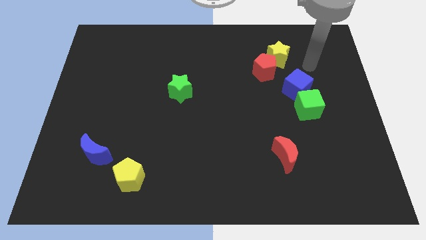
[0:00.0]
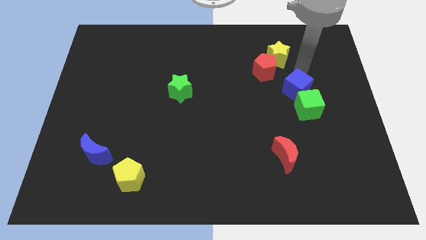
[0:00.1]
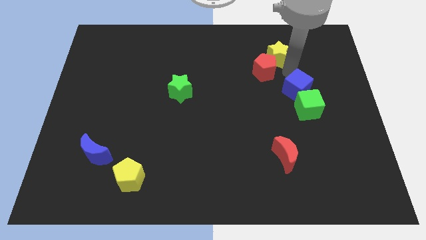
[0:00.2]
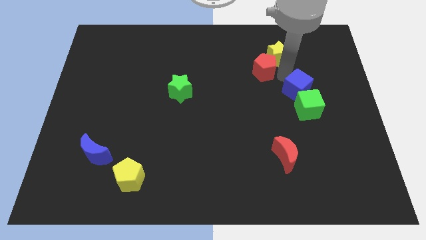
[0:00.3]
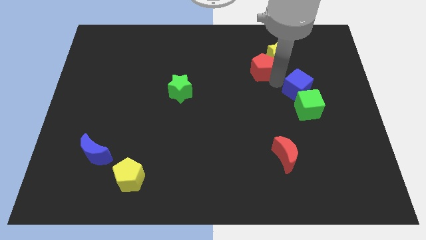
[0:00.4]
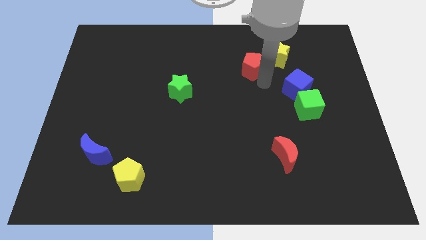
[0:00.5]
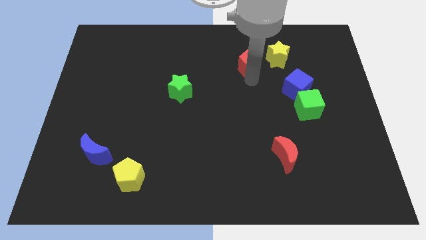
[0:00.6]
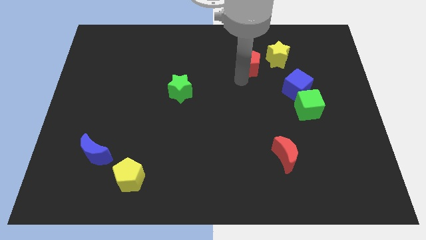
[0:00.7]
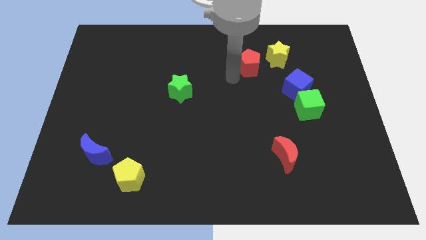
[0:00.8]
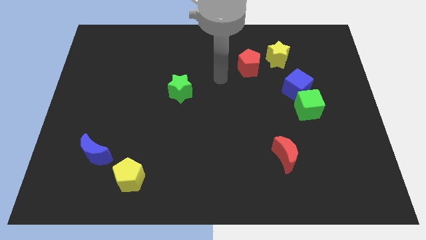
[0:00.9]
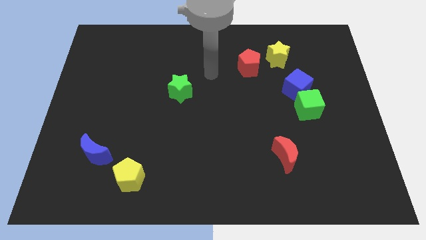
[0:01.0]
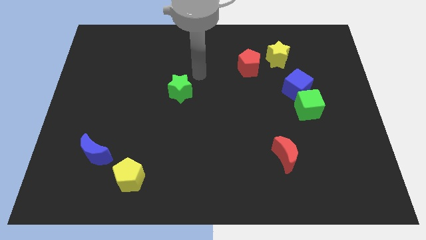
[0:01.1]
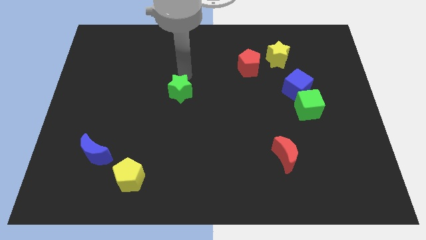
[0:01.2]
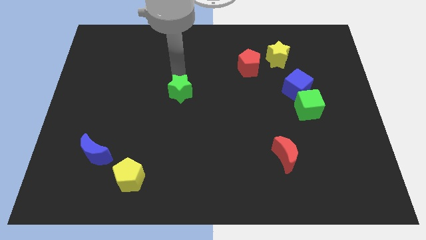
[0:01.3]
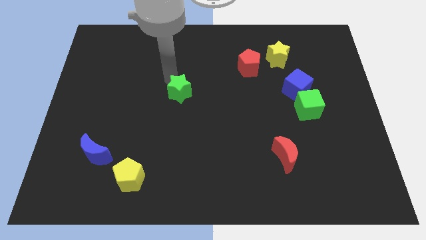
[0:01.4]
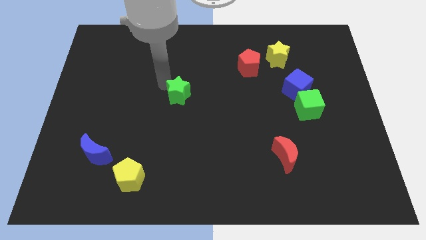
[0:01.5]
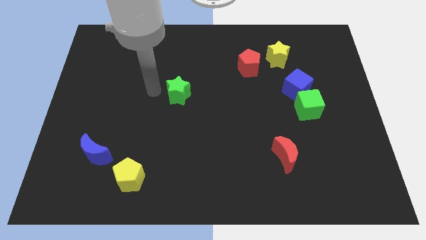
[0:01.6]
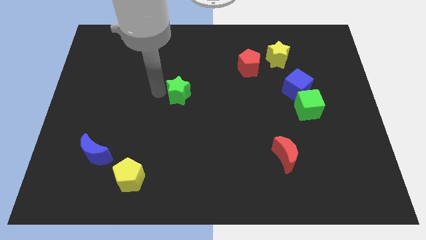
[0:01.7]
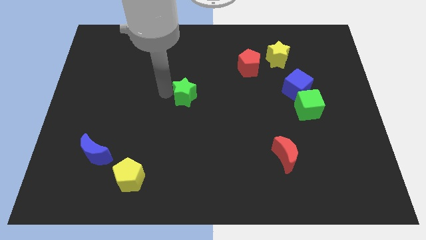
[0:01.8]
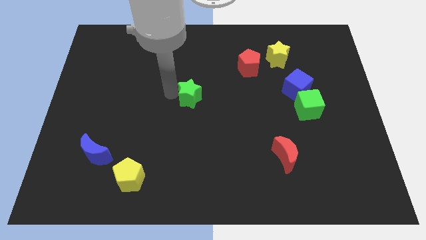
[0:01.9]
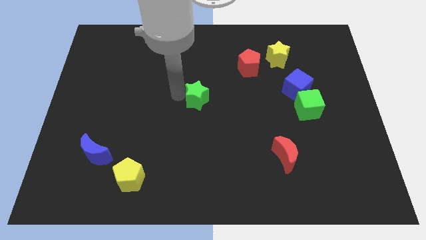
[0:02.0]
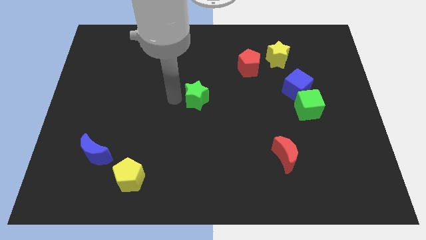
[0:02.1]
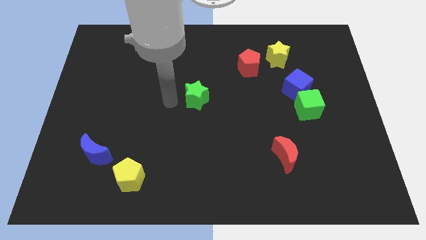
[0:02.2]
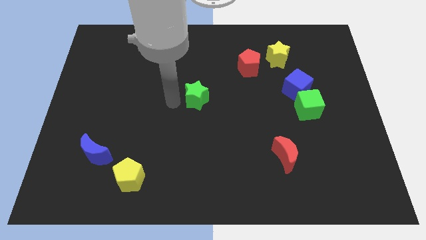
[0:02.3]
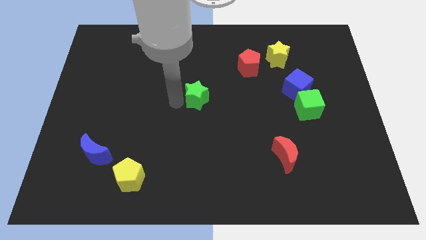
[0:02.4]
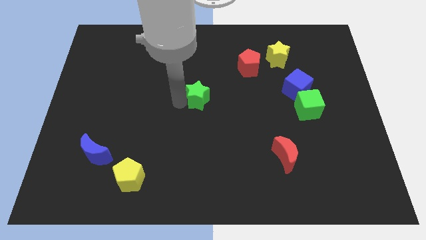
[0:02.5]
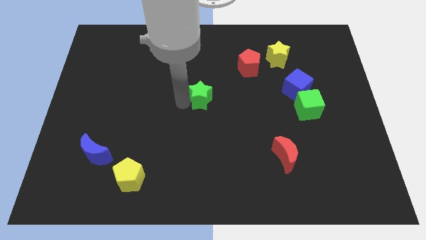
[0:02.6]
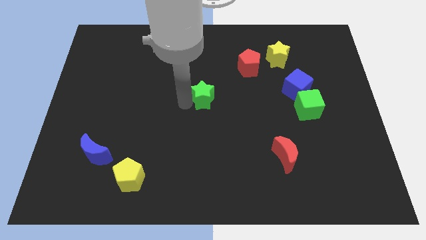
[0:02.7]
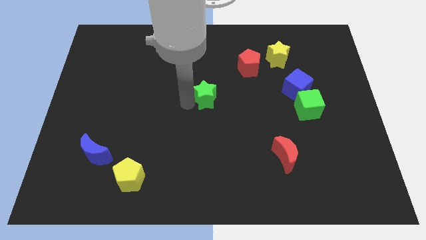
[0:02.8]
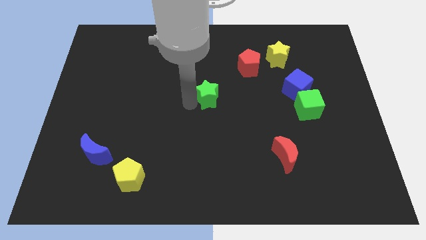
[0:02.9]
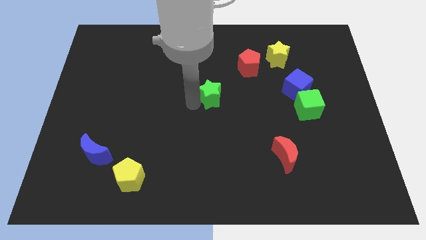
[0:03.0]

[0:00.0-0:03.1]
move the green star right slightly

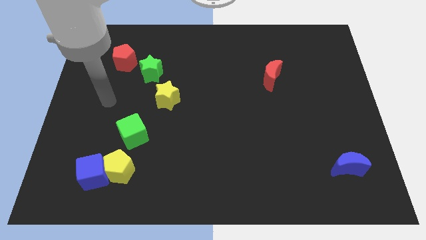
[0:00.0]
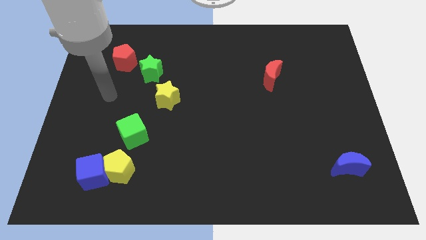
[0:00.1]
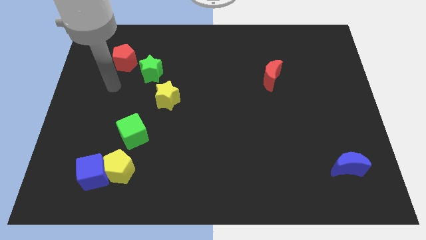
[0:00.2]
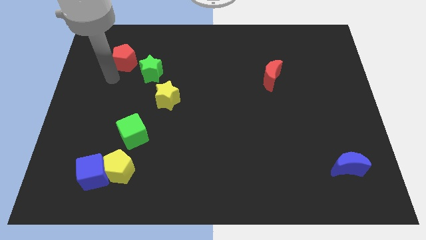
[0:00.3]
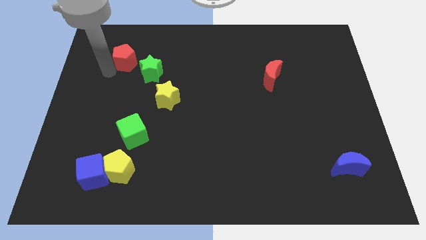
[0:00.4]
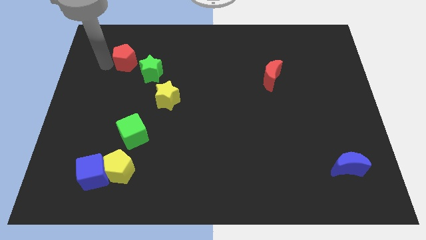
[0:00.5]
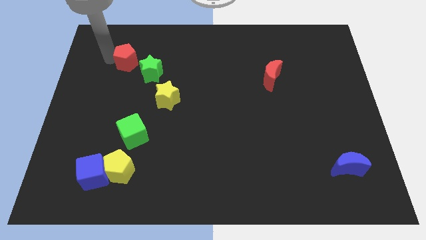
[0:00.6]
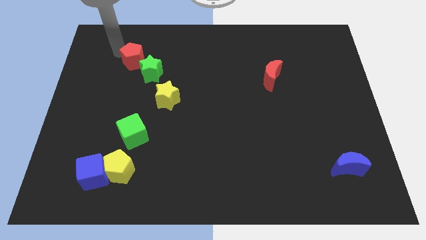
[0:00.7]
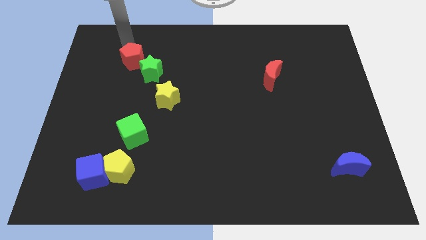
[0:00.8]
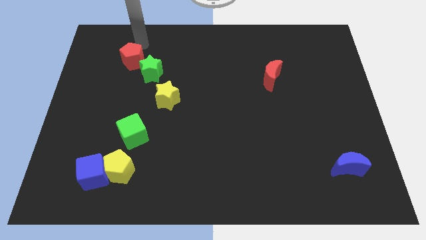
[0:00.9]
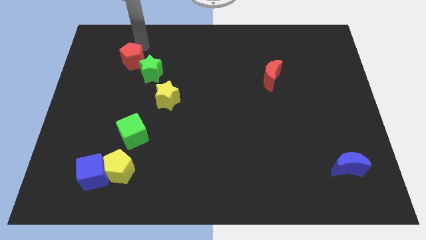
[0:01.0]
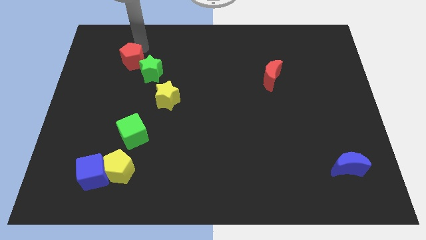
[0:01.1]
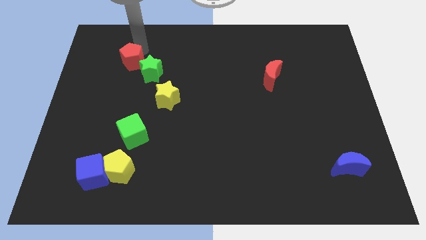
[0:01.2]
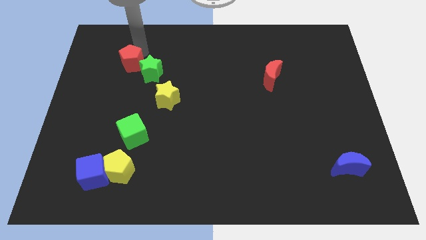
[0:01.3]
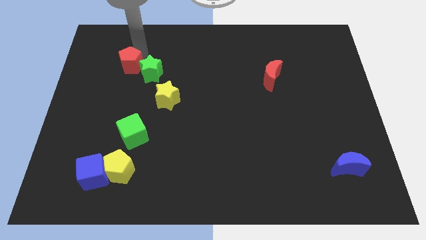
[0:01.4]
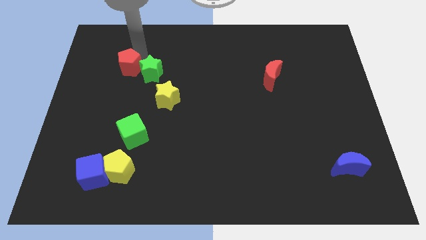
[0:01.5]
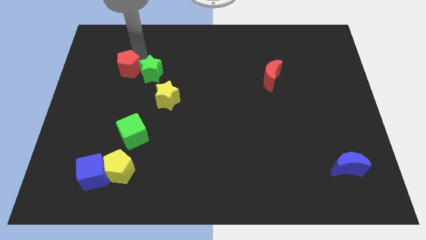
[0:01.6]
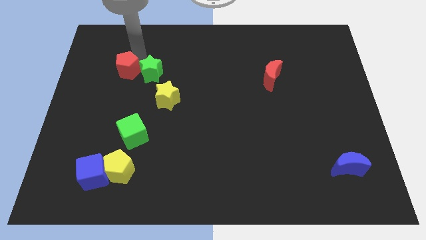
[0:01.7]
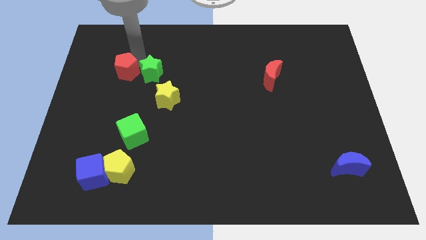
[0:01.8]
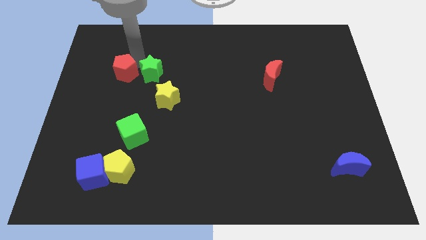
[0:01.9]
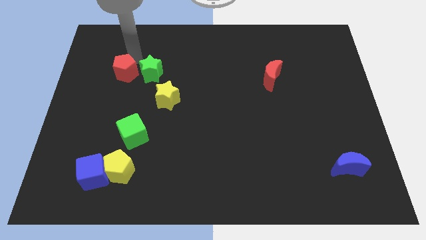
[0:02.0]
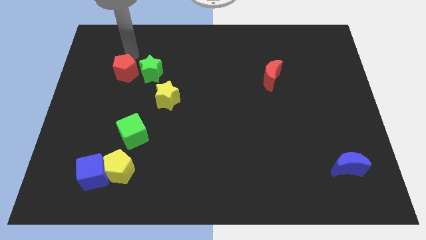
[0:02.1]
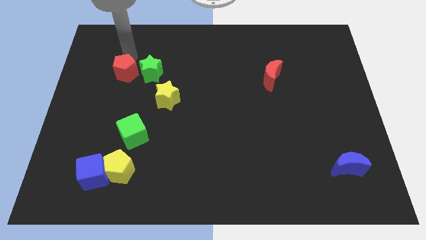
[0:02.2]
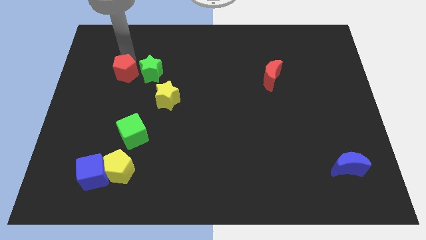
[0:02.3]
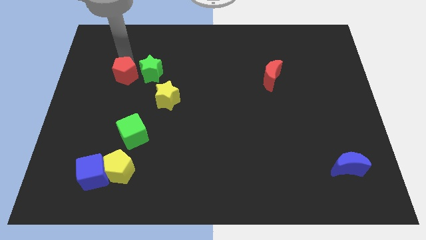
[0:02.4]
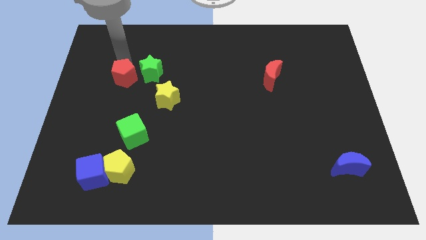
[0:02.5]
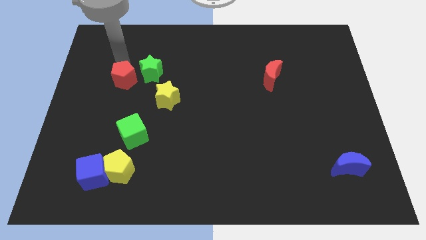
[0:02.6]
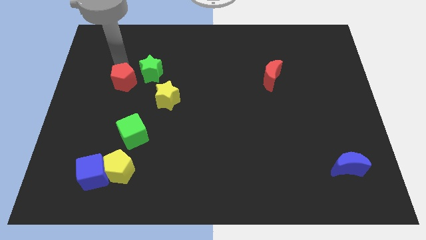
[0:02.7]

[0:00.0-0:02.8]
slightly push the red pentagon down

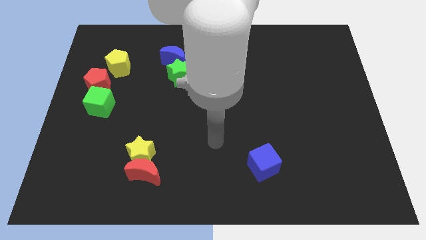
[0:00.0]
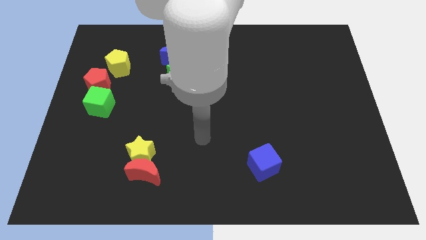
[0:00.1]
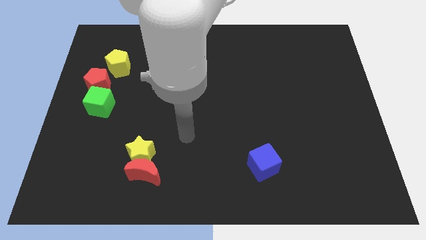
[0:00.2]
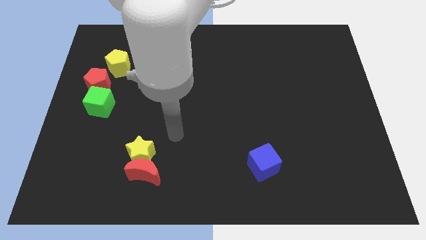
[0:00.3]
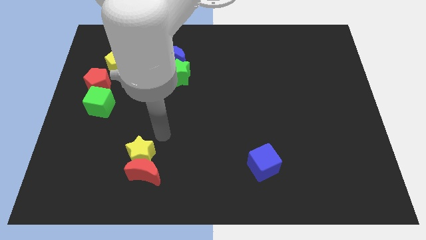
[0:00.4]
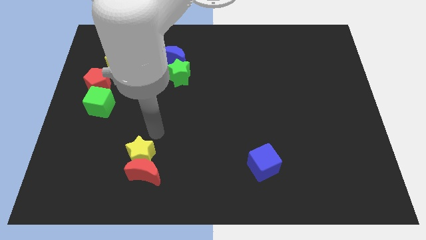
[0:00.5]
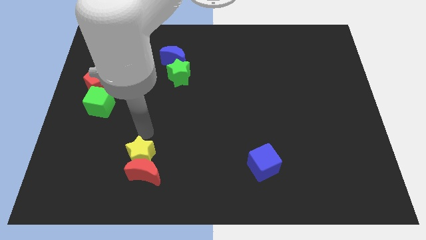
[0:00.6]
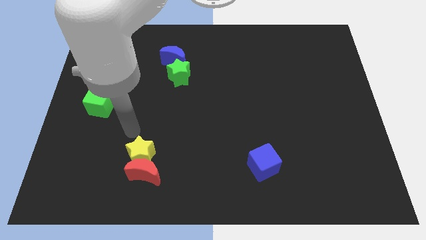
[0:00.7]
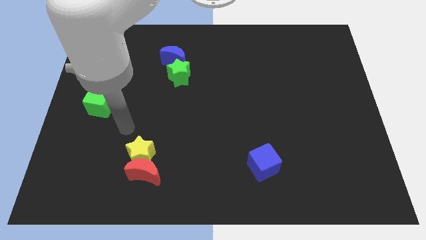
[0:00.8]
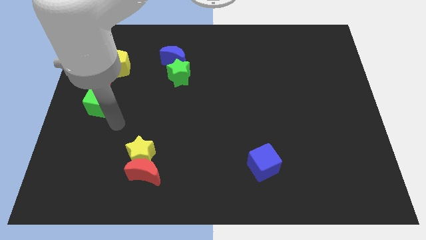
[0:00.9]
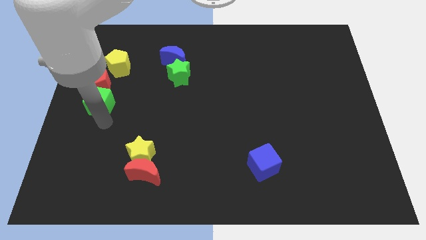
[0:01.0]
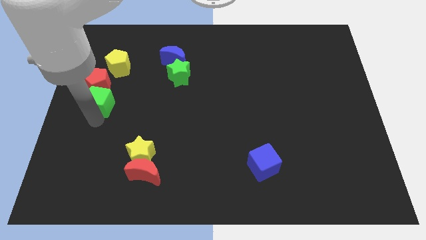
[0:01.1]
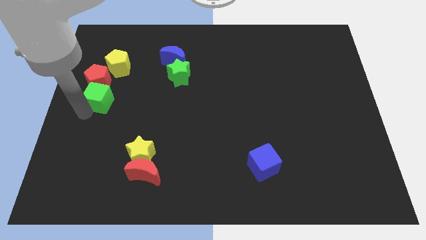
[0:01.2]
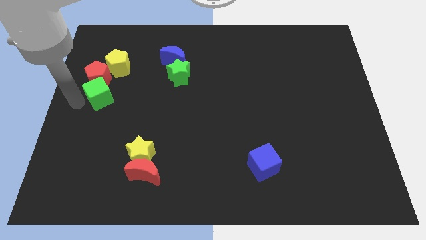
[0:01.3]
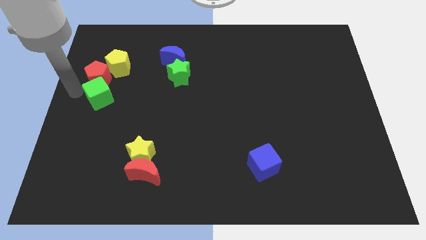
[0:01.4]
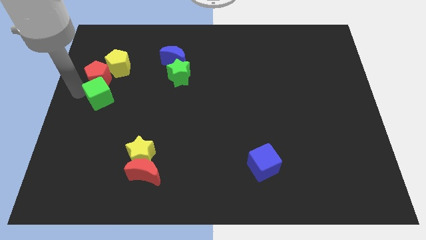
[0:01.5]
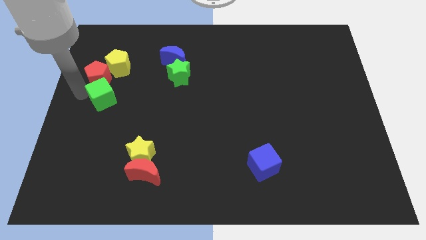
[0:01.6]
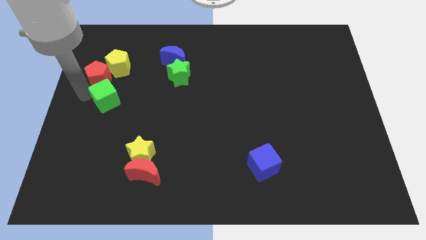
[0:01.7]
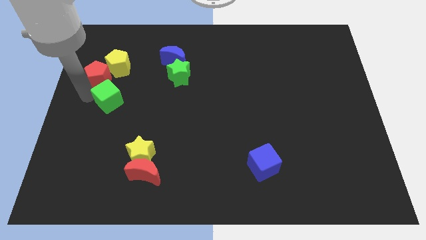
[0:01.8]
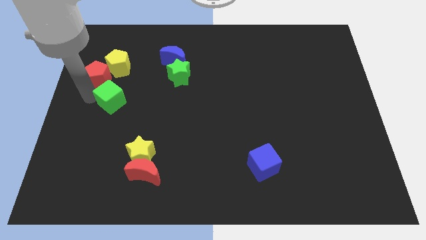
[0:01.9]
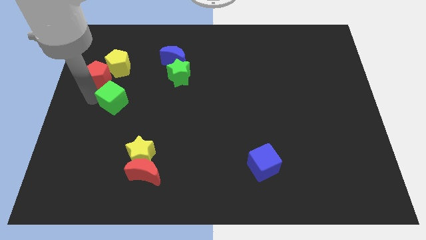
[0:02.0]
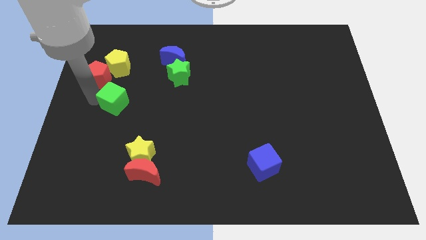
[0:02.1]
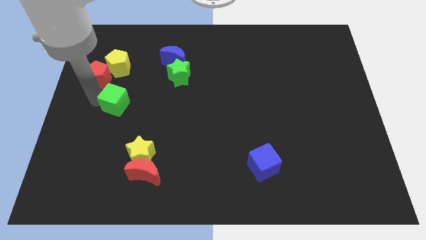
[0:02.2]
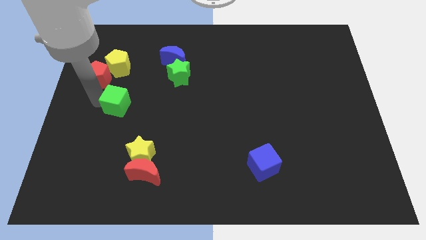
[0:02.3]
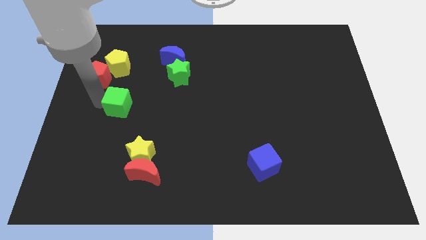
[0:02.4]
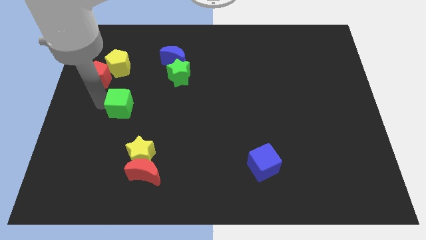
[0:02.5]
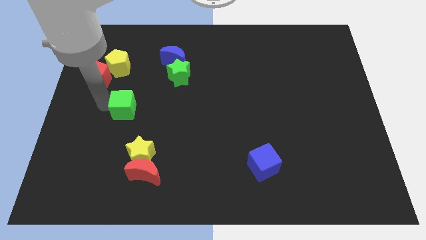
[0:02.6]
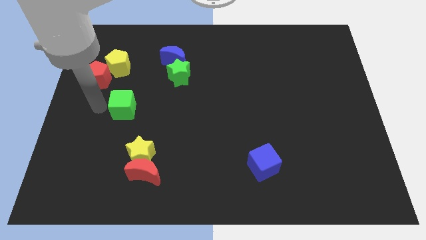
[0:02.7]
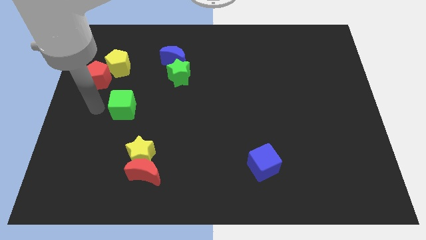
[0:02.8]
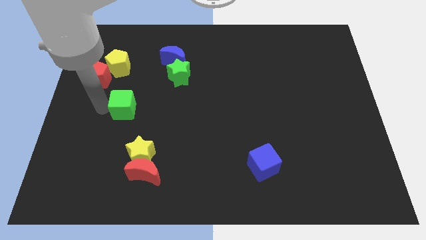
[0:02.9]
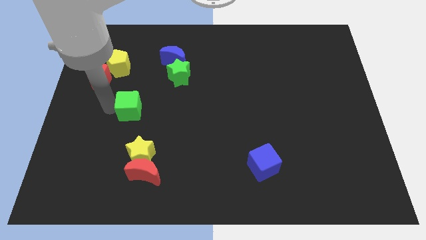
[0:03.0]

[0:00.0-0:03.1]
slide the green cube right a bit
